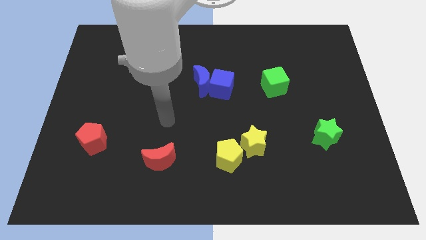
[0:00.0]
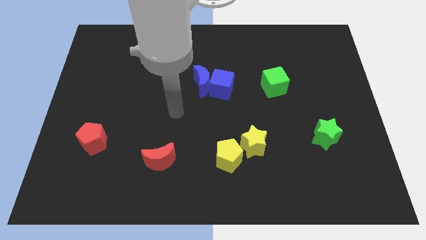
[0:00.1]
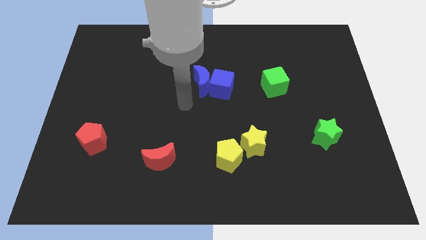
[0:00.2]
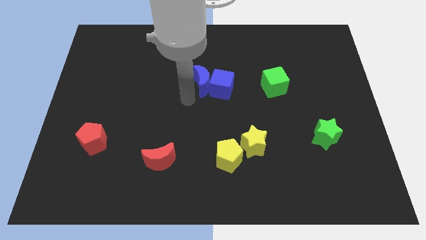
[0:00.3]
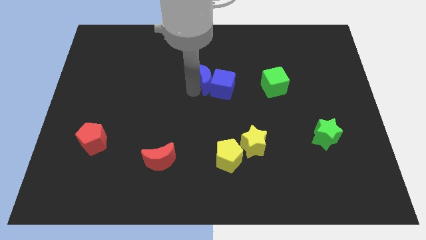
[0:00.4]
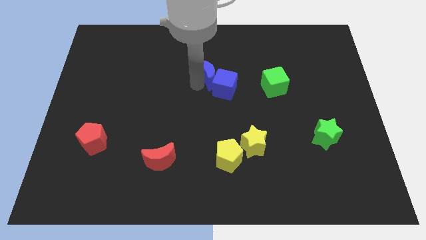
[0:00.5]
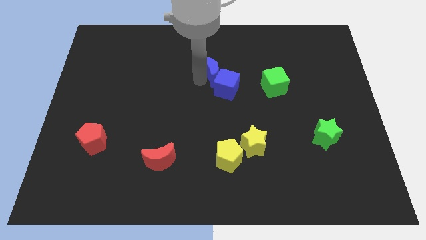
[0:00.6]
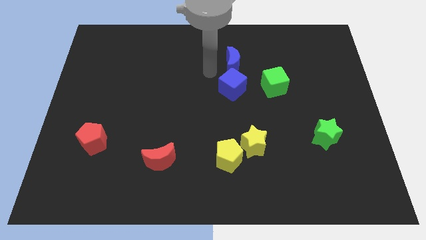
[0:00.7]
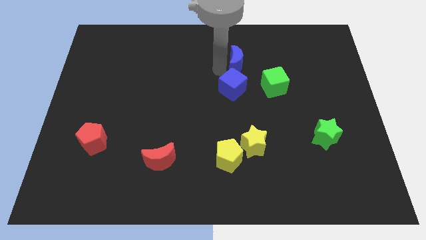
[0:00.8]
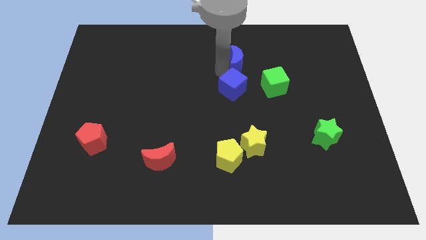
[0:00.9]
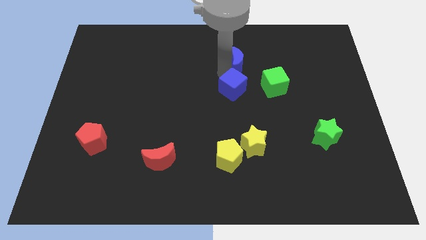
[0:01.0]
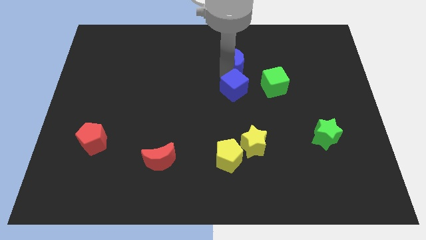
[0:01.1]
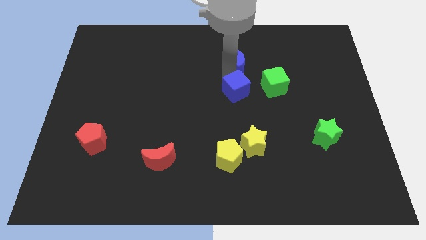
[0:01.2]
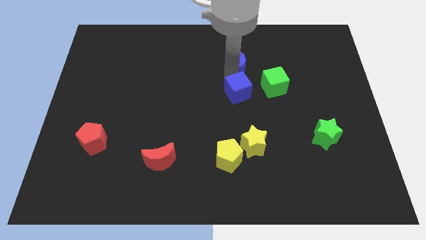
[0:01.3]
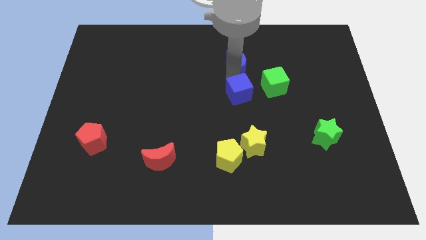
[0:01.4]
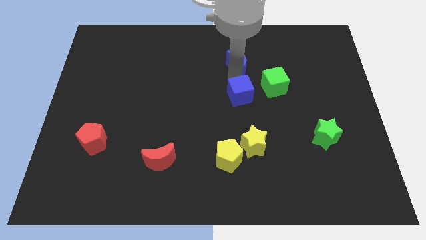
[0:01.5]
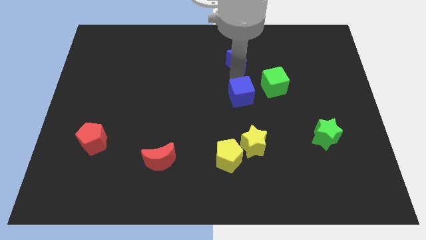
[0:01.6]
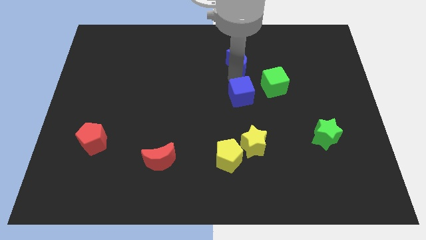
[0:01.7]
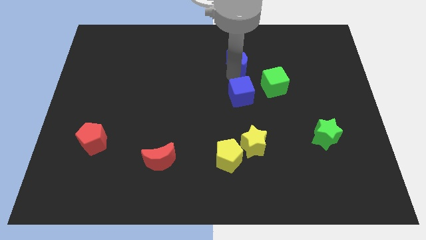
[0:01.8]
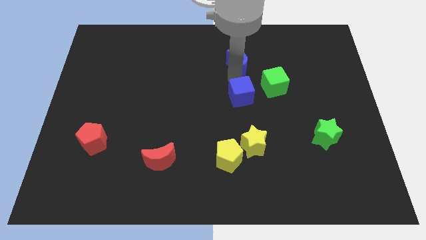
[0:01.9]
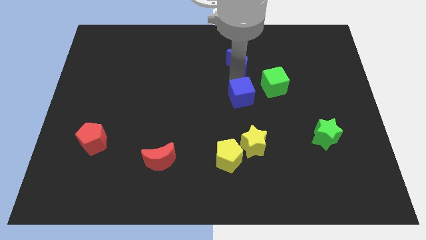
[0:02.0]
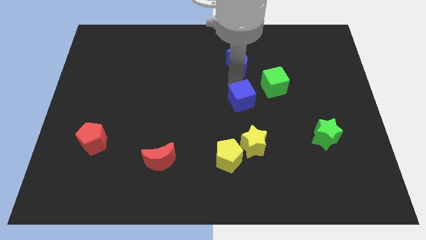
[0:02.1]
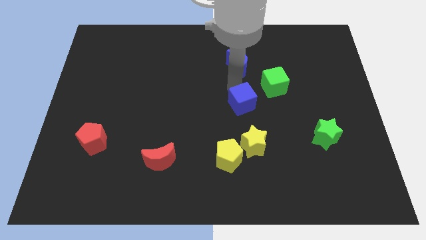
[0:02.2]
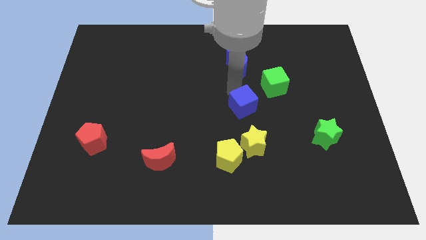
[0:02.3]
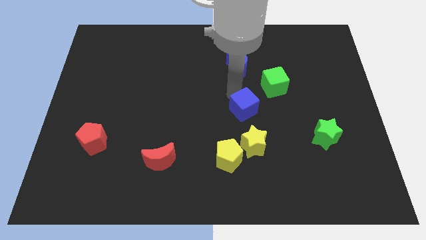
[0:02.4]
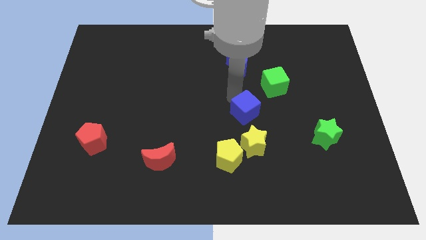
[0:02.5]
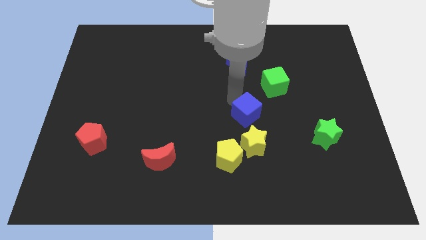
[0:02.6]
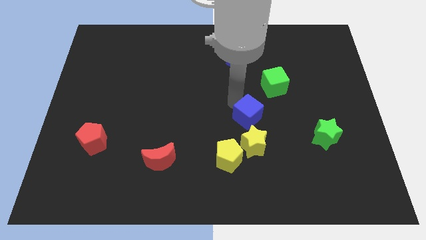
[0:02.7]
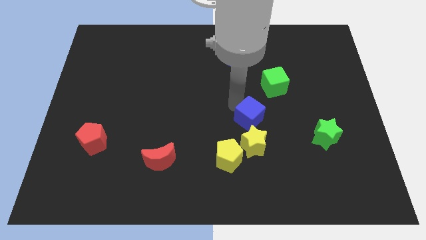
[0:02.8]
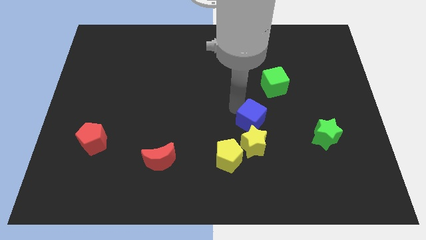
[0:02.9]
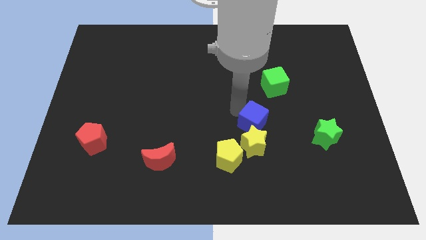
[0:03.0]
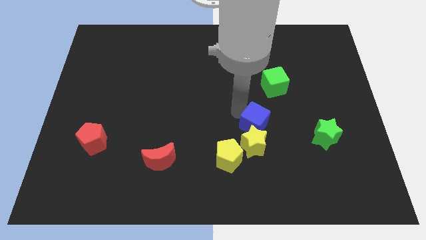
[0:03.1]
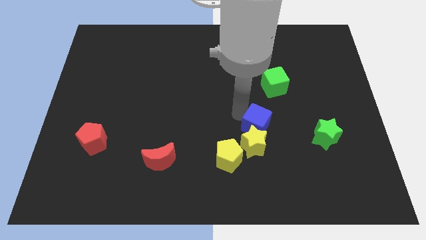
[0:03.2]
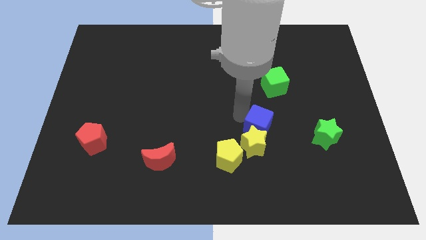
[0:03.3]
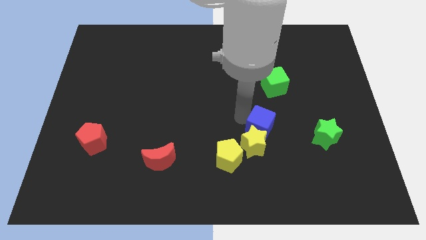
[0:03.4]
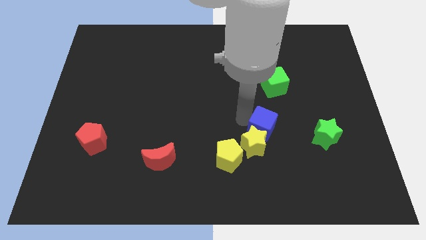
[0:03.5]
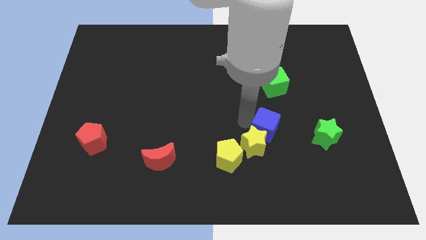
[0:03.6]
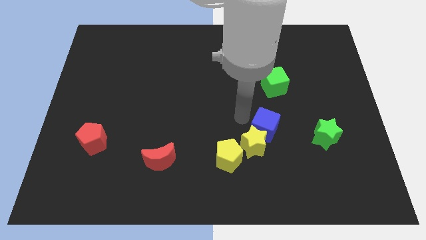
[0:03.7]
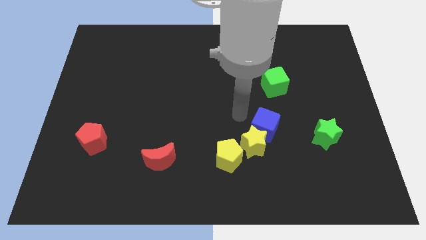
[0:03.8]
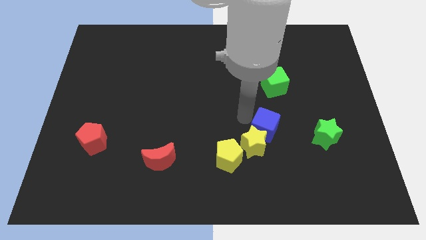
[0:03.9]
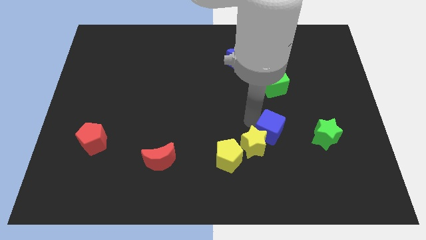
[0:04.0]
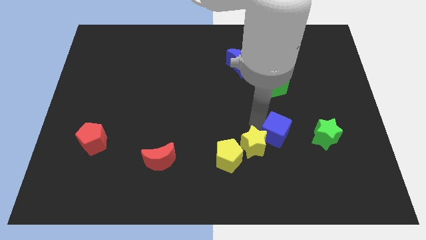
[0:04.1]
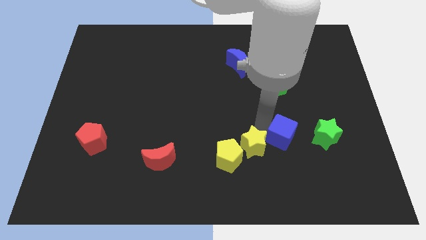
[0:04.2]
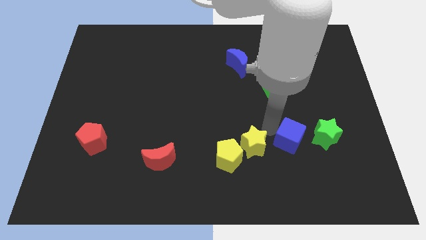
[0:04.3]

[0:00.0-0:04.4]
push the blue cube diagonally down and right

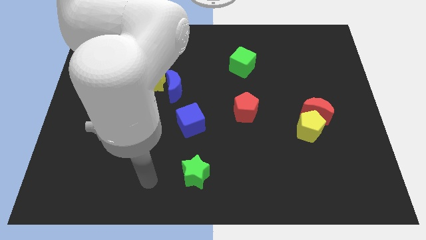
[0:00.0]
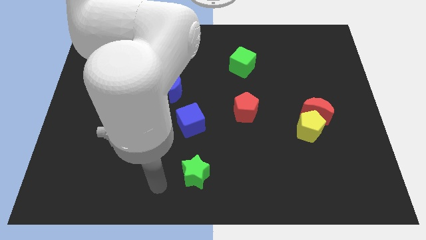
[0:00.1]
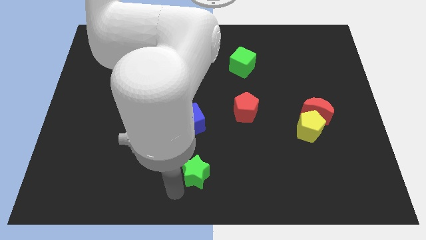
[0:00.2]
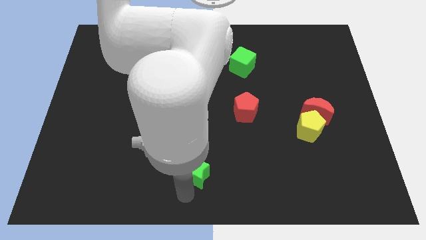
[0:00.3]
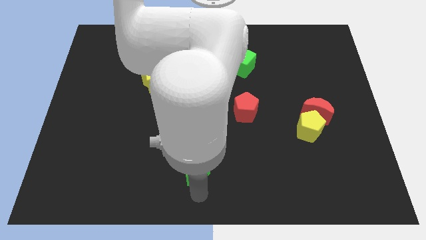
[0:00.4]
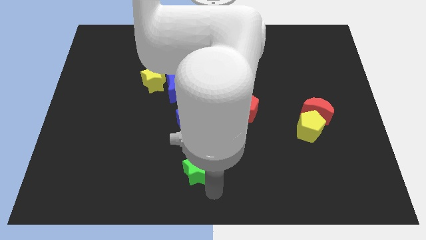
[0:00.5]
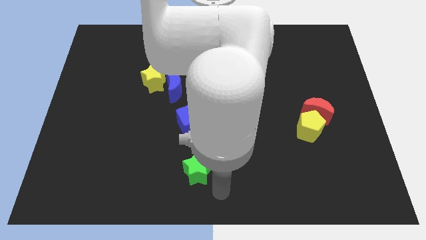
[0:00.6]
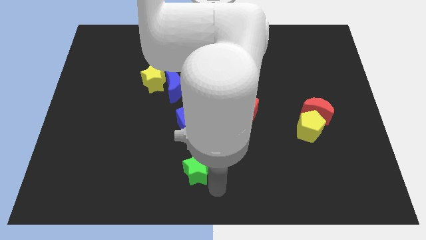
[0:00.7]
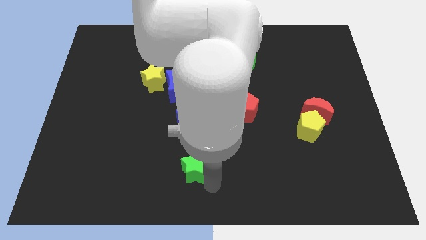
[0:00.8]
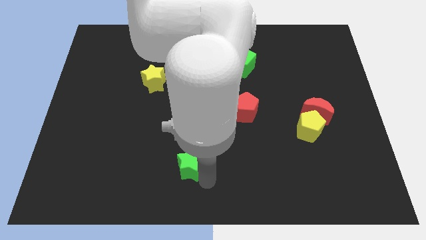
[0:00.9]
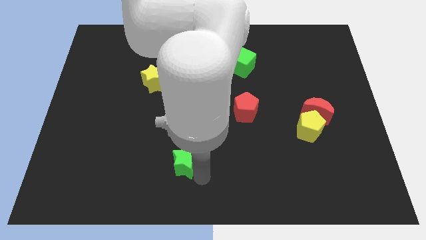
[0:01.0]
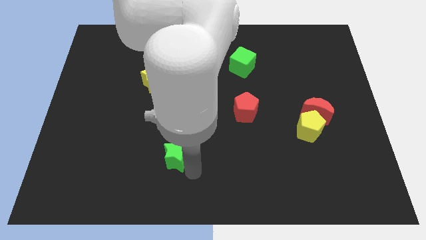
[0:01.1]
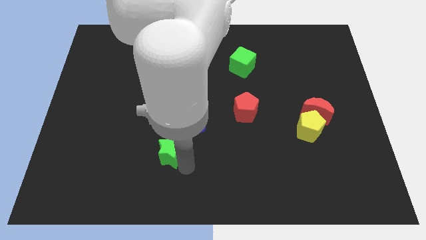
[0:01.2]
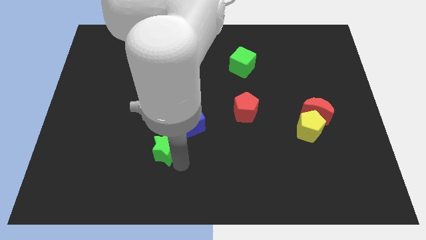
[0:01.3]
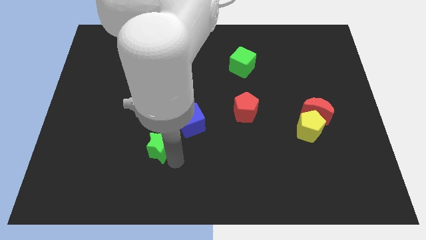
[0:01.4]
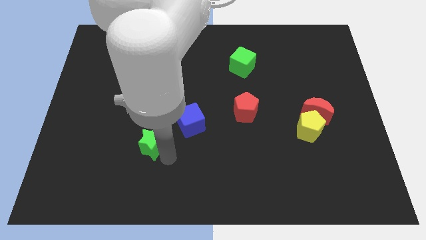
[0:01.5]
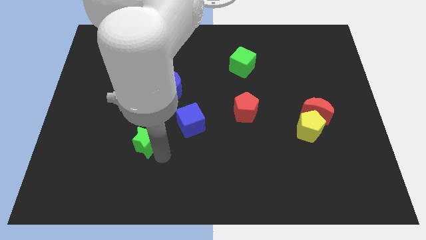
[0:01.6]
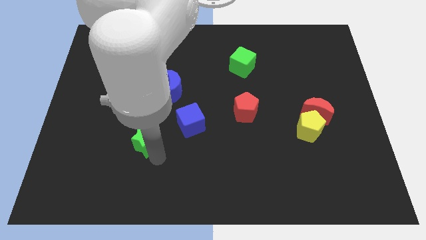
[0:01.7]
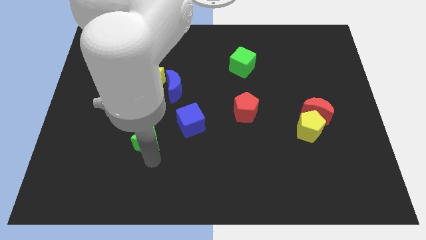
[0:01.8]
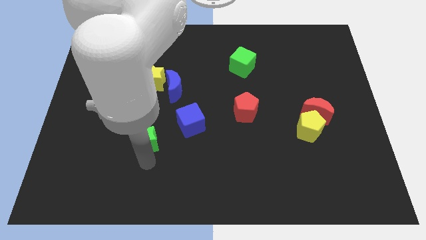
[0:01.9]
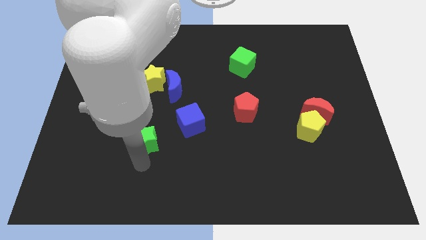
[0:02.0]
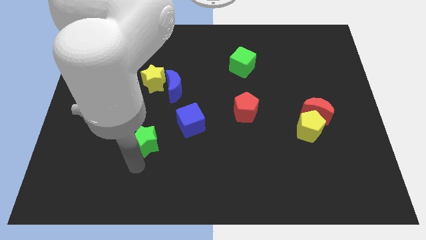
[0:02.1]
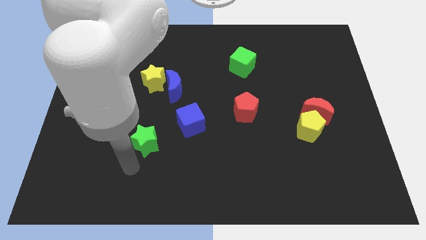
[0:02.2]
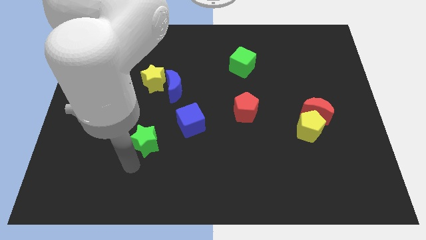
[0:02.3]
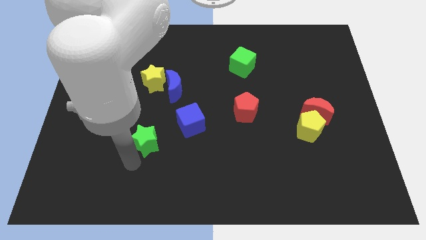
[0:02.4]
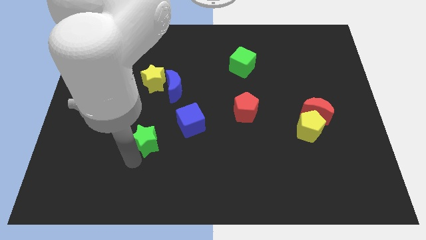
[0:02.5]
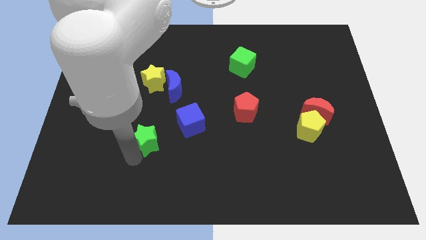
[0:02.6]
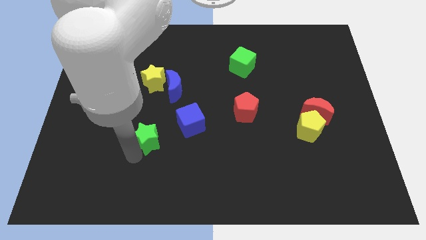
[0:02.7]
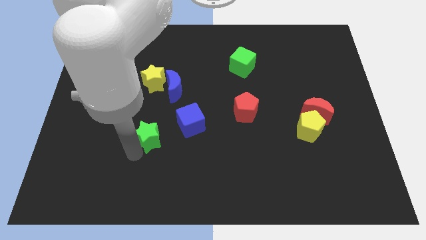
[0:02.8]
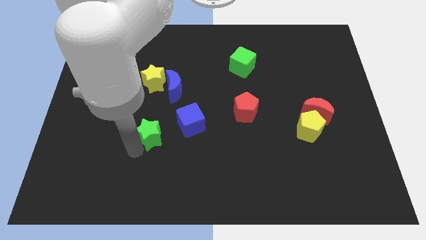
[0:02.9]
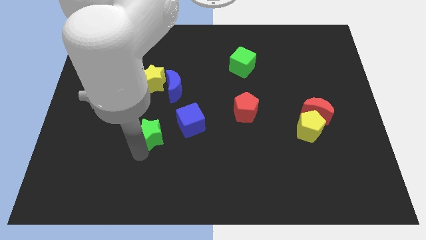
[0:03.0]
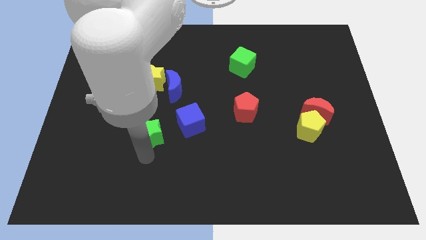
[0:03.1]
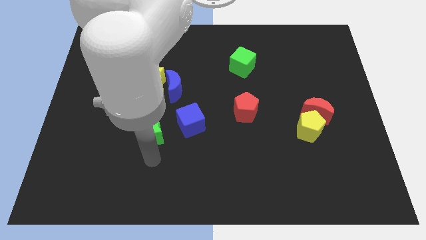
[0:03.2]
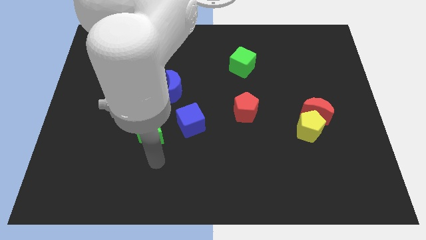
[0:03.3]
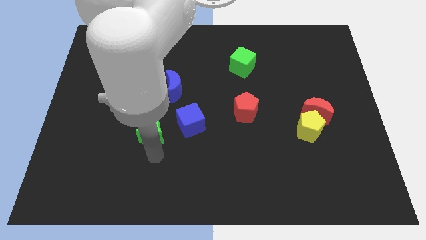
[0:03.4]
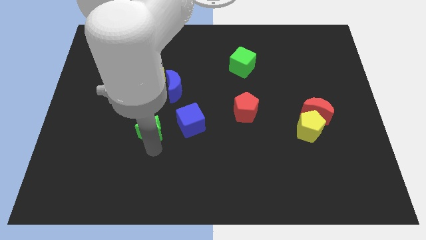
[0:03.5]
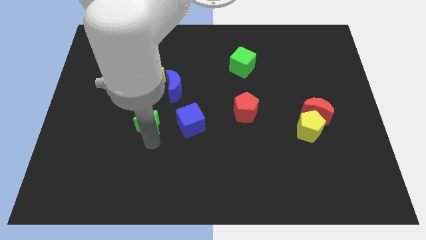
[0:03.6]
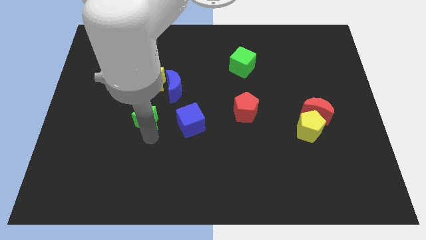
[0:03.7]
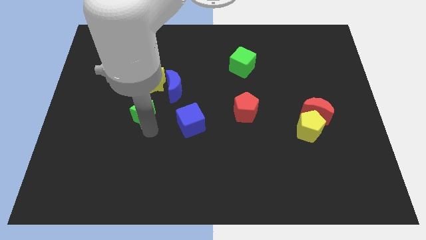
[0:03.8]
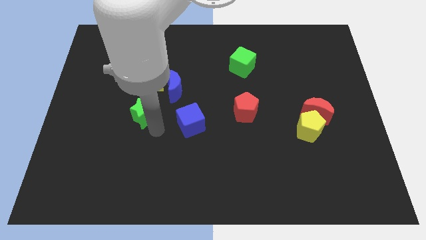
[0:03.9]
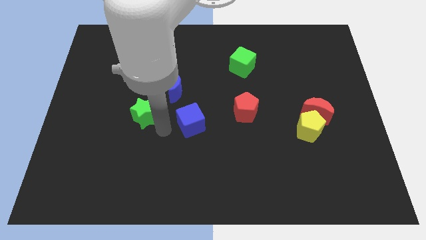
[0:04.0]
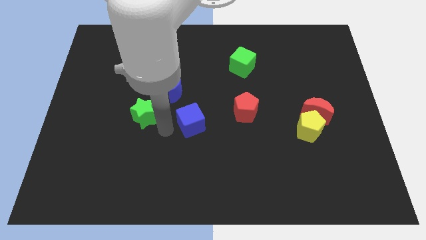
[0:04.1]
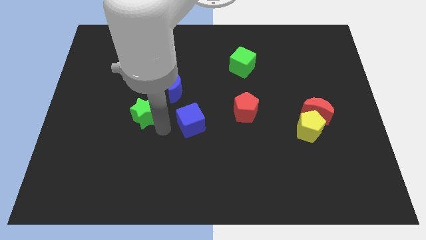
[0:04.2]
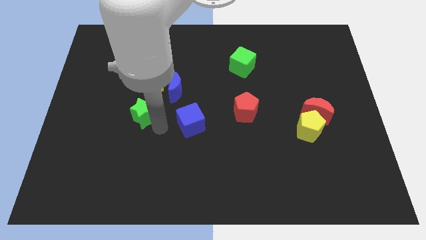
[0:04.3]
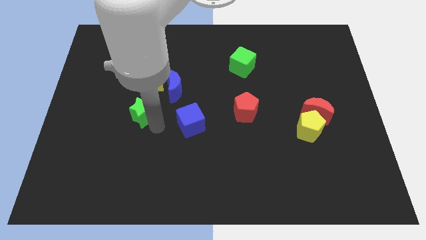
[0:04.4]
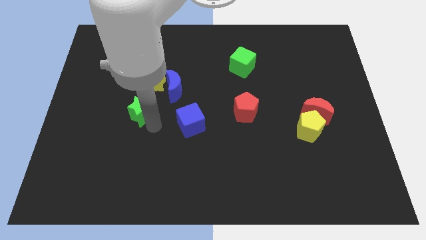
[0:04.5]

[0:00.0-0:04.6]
push the green star up and left diagonally
